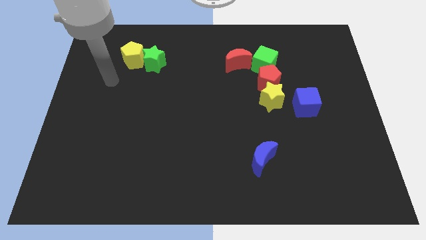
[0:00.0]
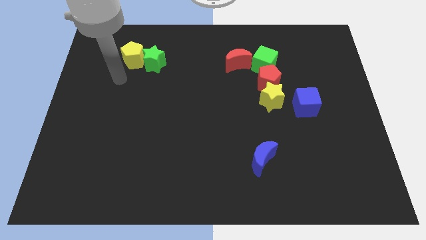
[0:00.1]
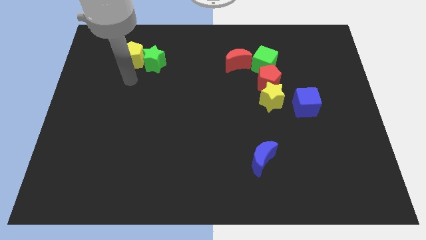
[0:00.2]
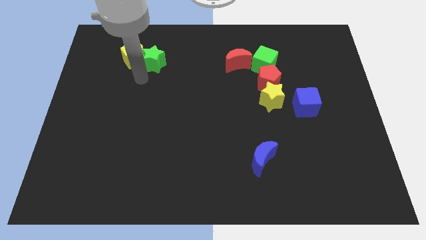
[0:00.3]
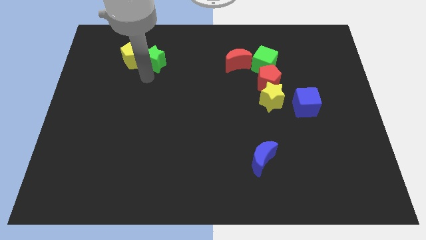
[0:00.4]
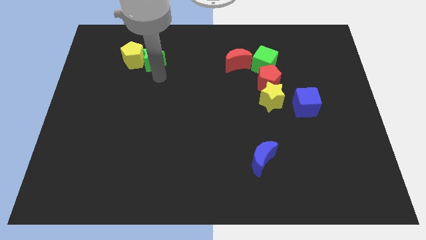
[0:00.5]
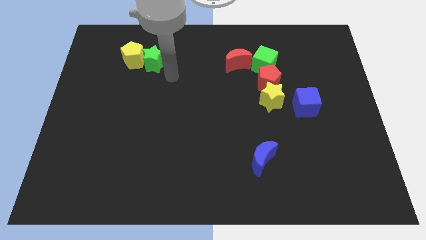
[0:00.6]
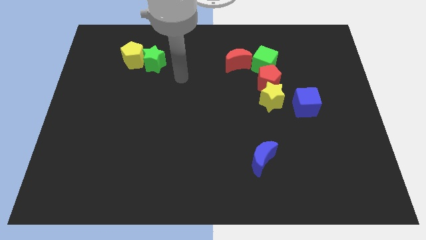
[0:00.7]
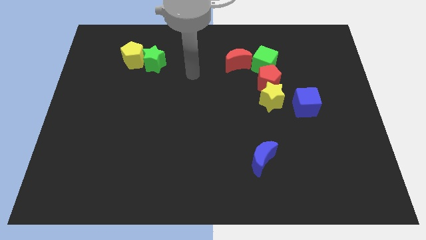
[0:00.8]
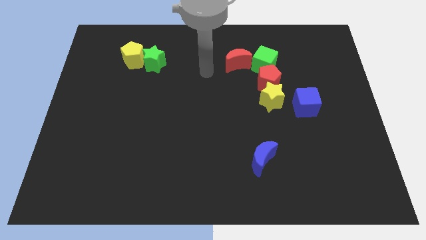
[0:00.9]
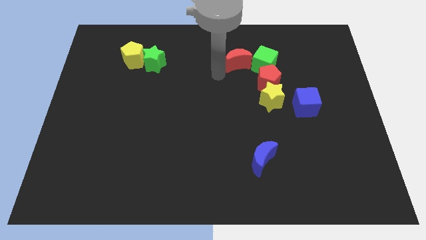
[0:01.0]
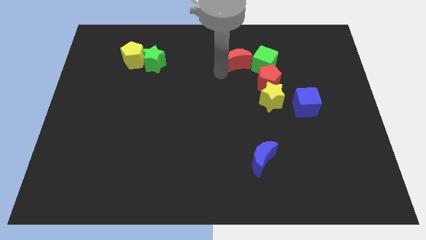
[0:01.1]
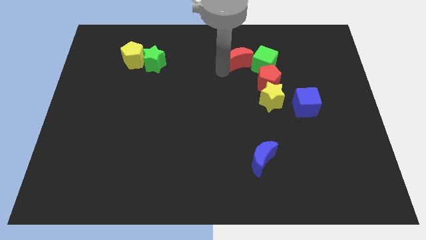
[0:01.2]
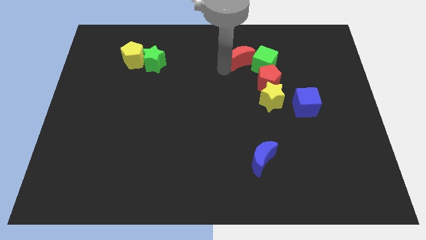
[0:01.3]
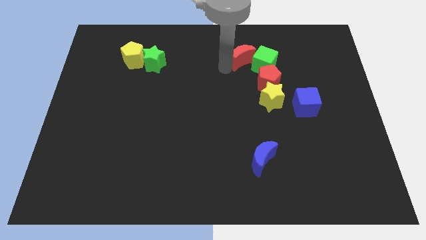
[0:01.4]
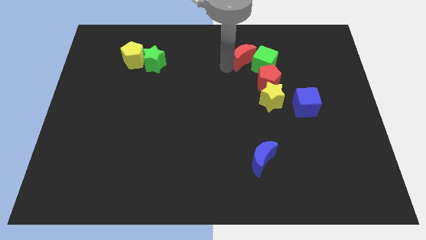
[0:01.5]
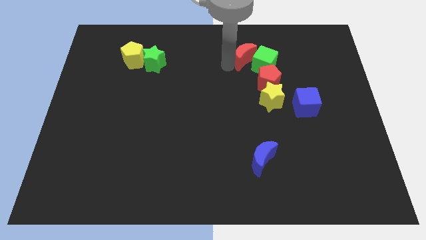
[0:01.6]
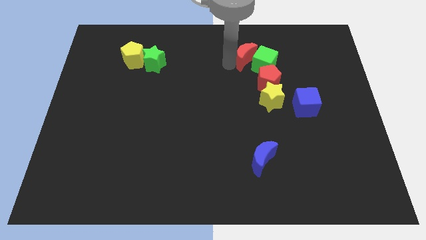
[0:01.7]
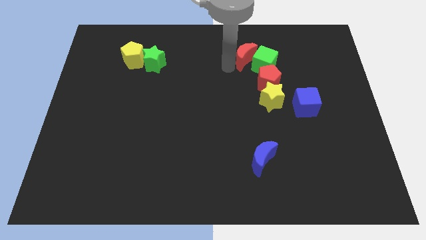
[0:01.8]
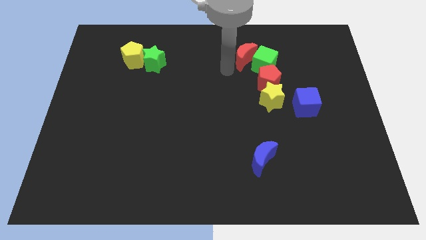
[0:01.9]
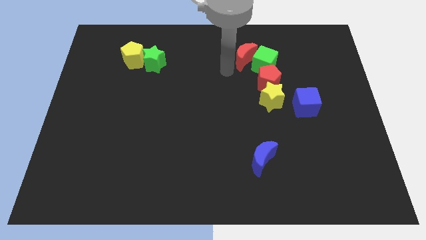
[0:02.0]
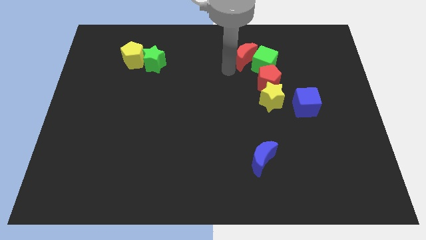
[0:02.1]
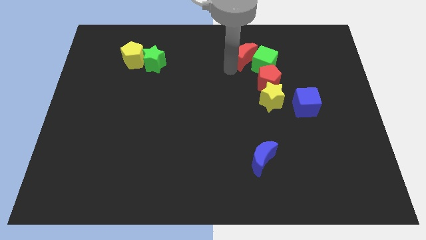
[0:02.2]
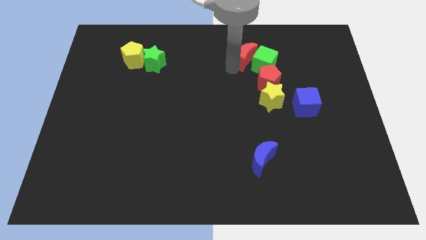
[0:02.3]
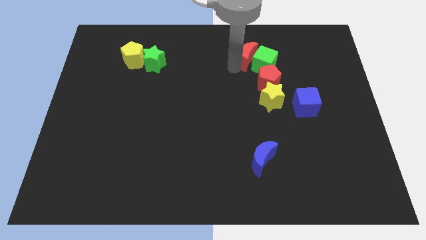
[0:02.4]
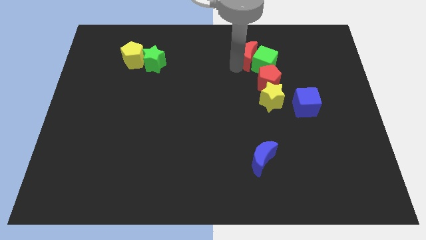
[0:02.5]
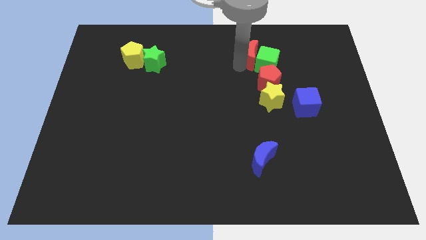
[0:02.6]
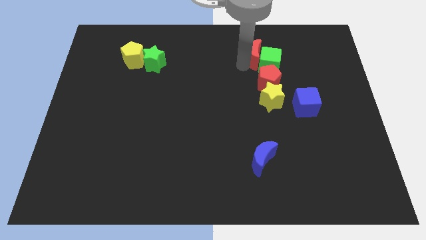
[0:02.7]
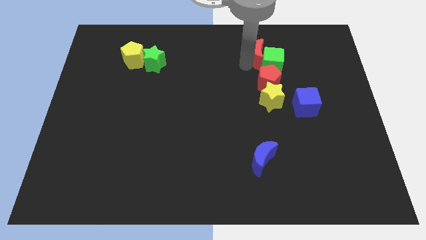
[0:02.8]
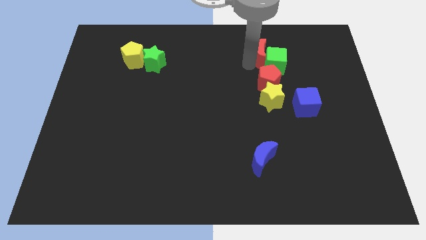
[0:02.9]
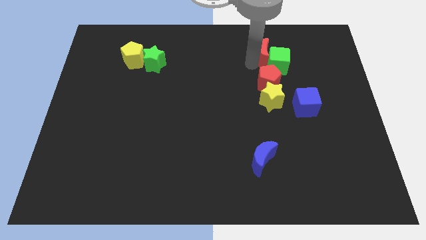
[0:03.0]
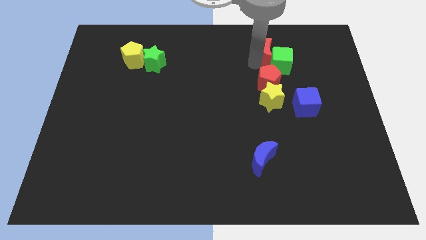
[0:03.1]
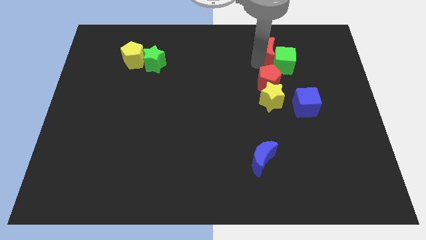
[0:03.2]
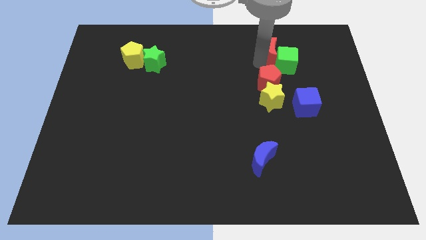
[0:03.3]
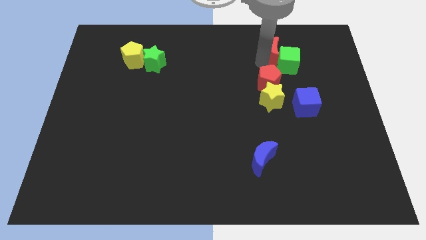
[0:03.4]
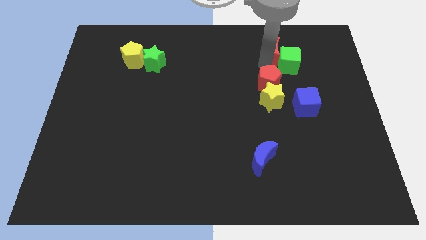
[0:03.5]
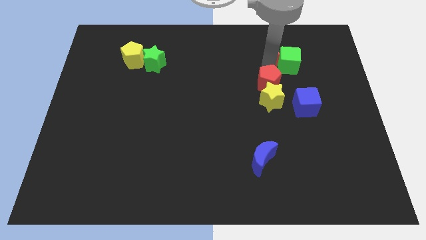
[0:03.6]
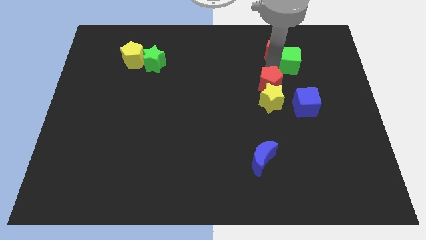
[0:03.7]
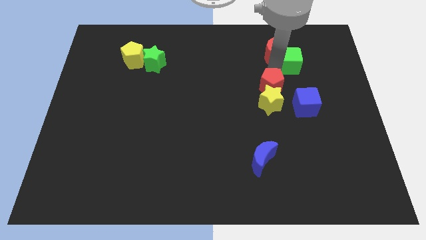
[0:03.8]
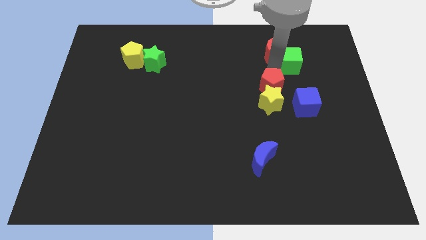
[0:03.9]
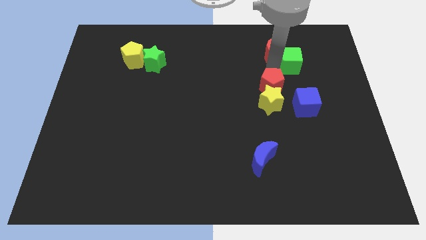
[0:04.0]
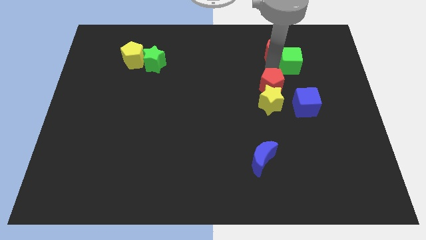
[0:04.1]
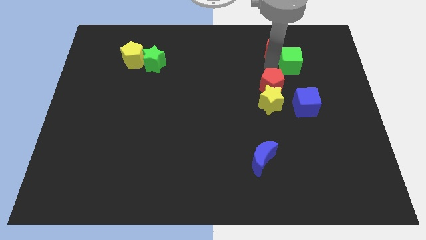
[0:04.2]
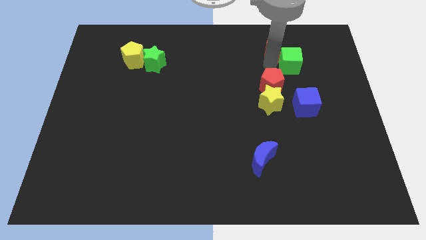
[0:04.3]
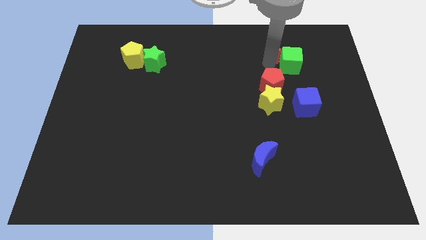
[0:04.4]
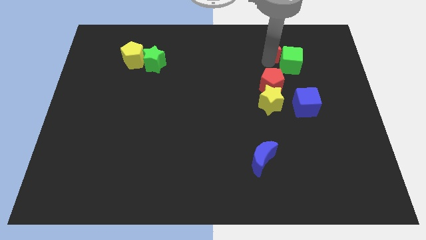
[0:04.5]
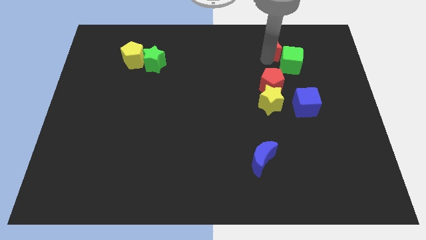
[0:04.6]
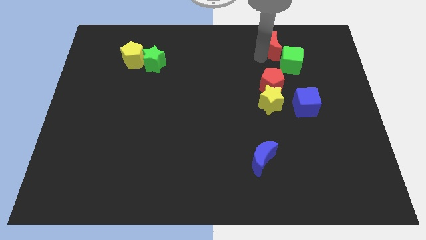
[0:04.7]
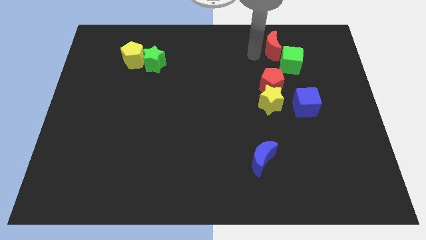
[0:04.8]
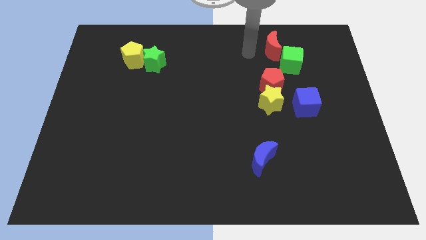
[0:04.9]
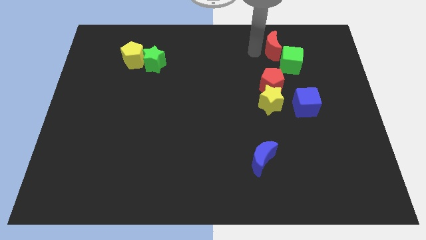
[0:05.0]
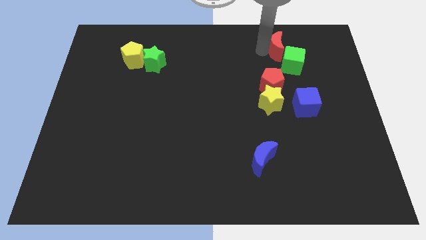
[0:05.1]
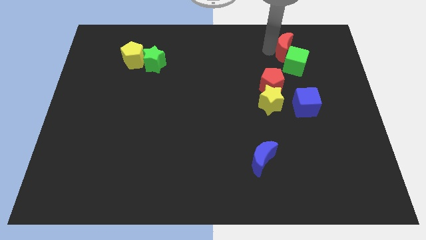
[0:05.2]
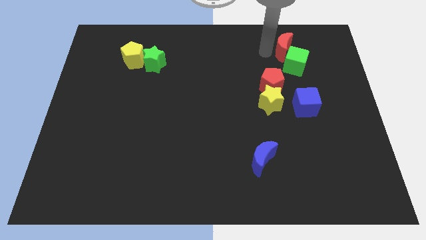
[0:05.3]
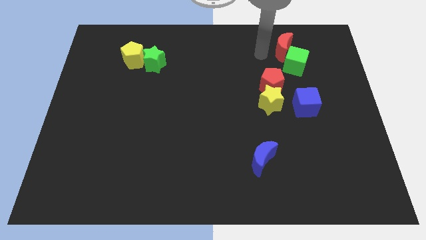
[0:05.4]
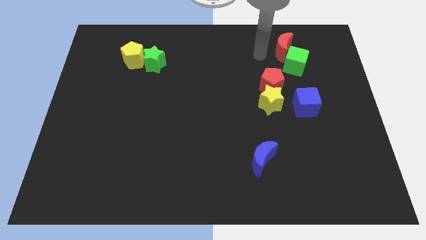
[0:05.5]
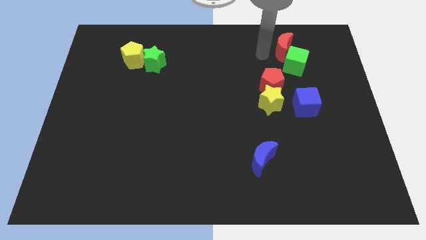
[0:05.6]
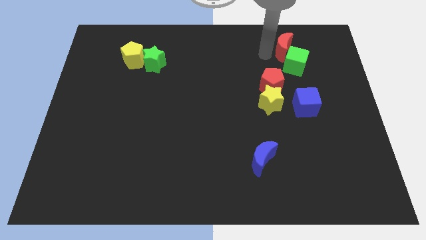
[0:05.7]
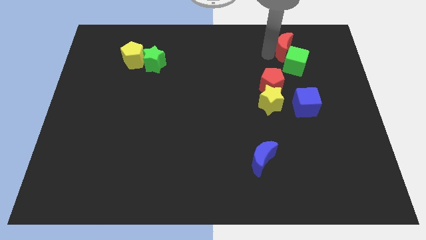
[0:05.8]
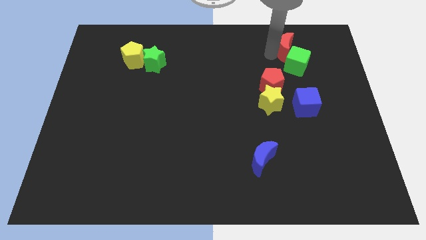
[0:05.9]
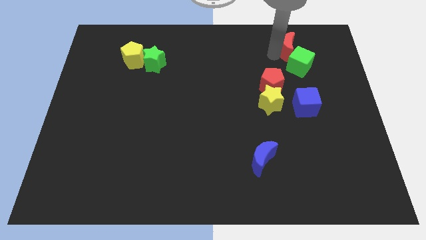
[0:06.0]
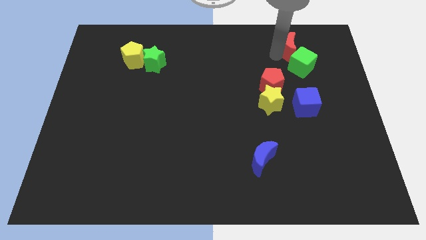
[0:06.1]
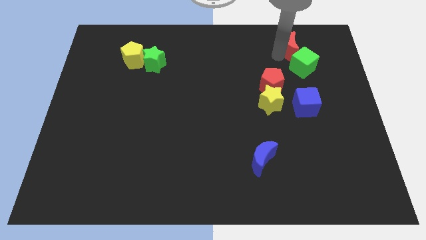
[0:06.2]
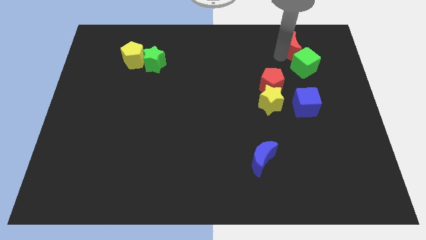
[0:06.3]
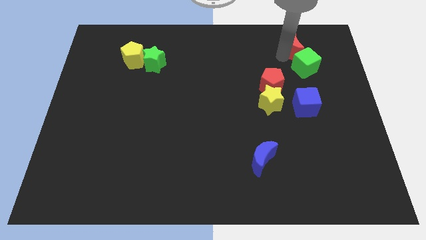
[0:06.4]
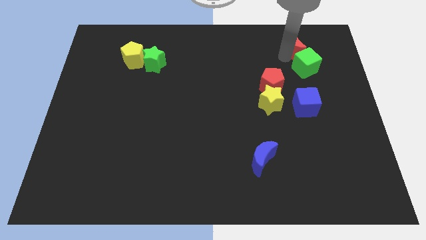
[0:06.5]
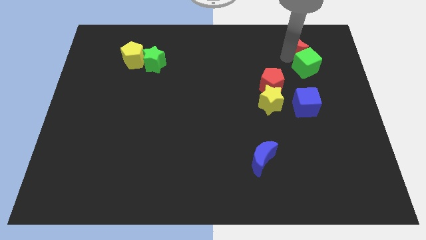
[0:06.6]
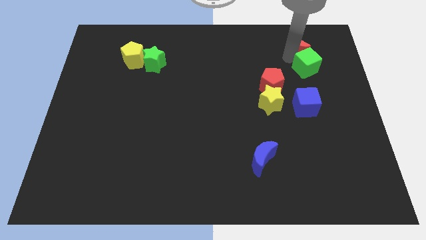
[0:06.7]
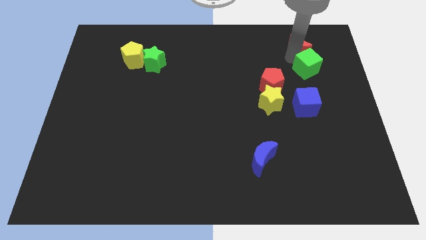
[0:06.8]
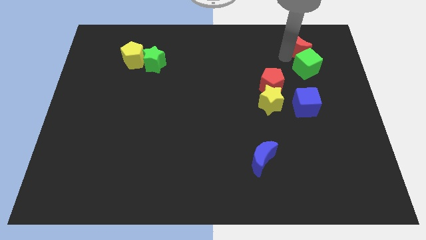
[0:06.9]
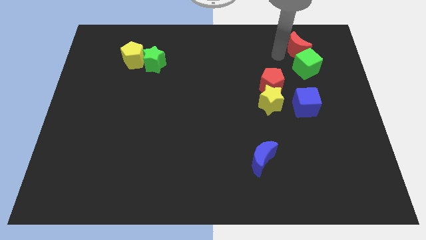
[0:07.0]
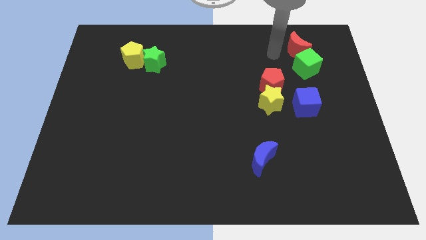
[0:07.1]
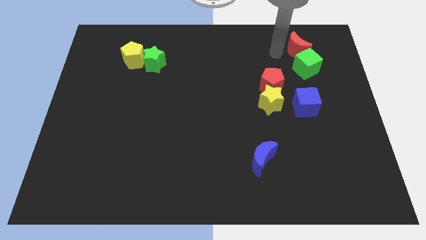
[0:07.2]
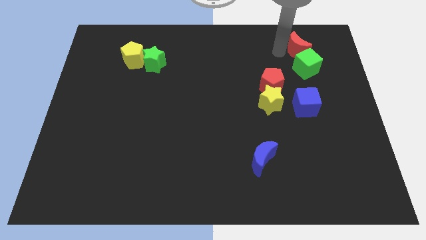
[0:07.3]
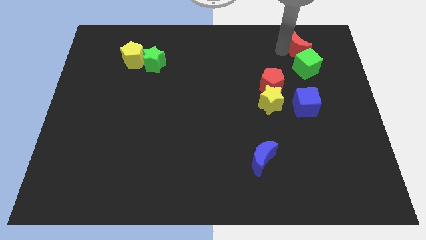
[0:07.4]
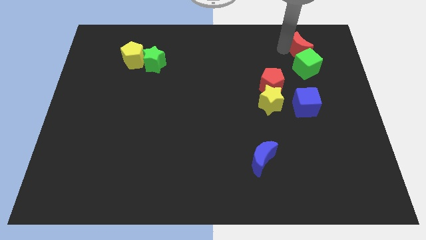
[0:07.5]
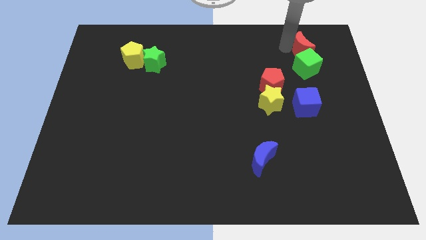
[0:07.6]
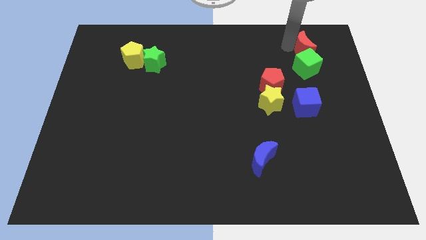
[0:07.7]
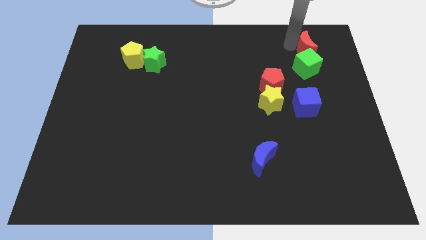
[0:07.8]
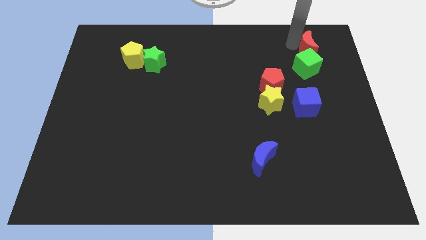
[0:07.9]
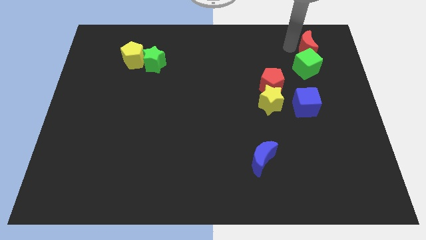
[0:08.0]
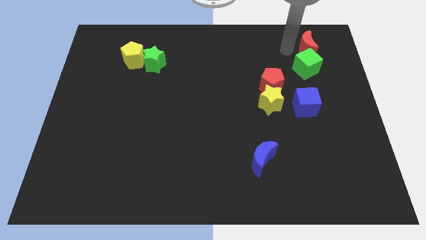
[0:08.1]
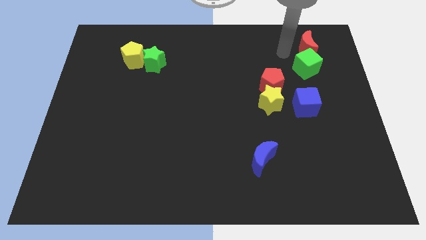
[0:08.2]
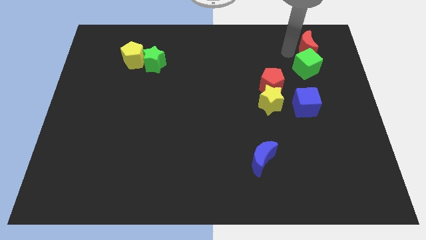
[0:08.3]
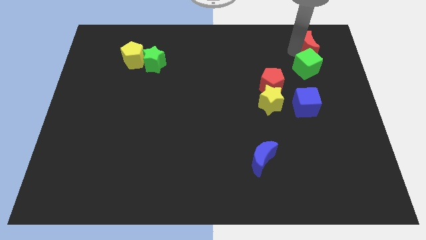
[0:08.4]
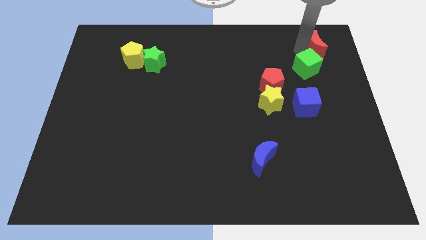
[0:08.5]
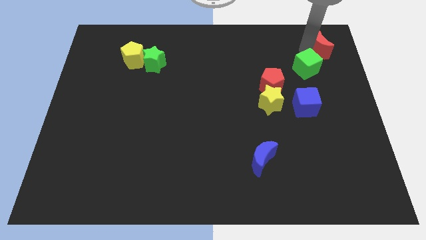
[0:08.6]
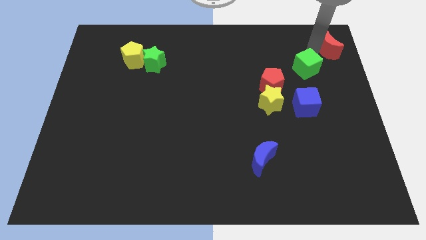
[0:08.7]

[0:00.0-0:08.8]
slide the red moon to the upper right corner
